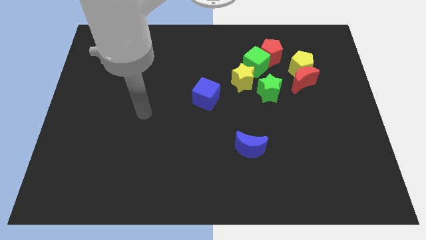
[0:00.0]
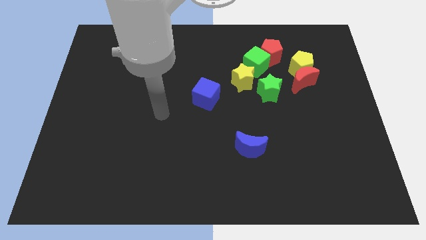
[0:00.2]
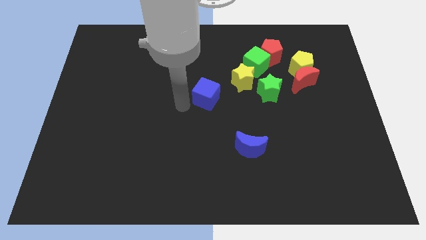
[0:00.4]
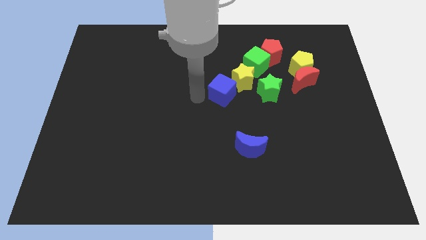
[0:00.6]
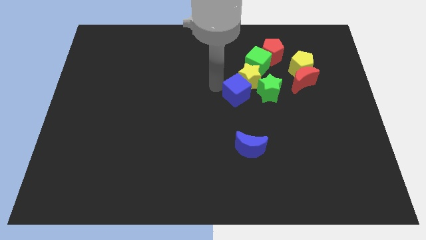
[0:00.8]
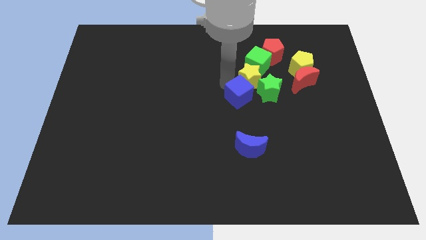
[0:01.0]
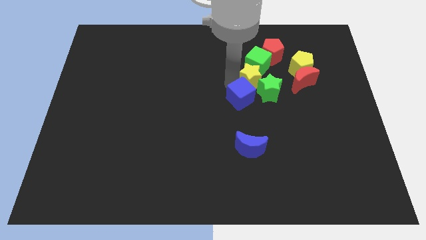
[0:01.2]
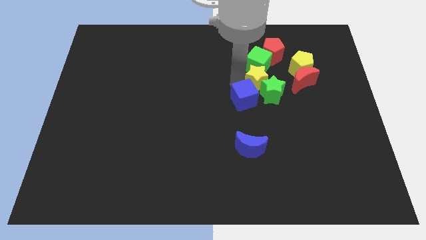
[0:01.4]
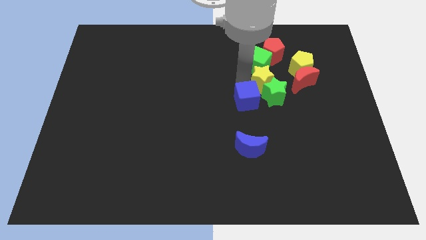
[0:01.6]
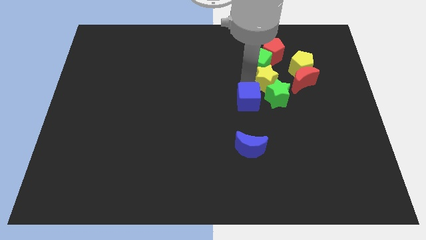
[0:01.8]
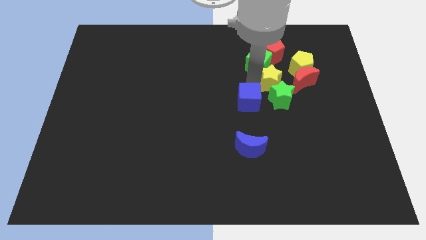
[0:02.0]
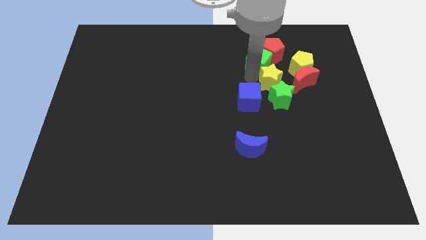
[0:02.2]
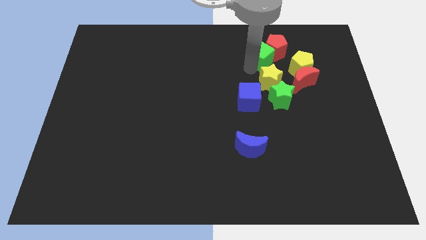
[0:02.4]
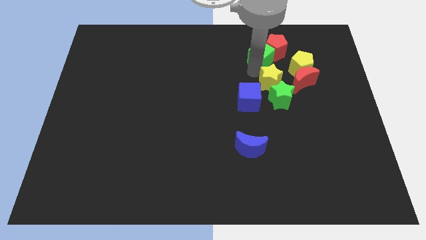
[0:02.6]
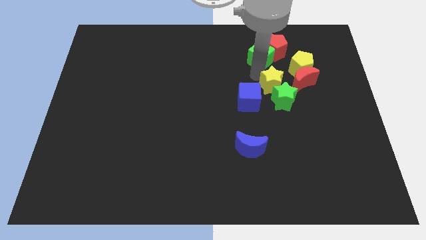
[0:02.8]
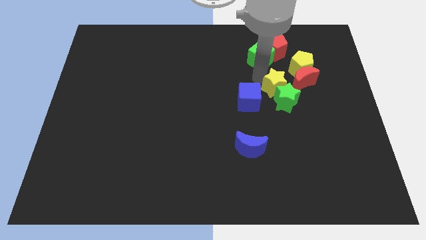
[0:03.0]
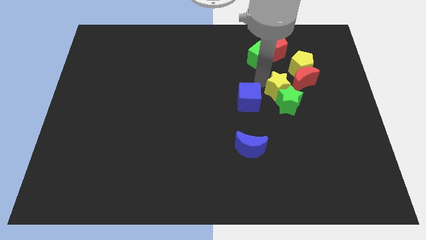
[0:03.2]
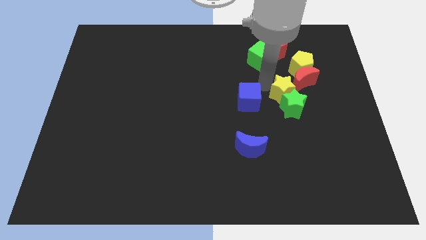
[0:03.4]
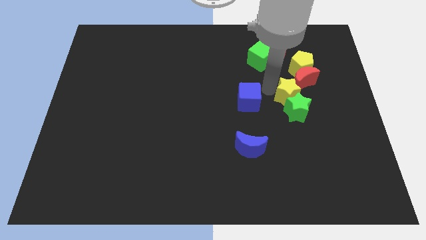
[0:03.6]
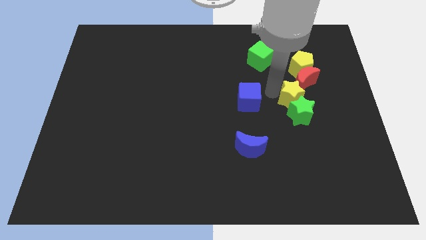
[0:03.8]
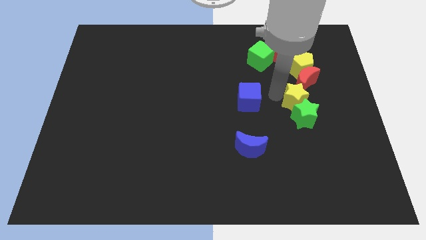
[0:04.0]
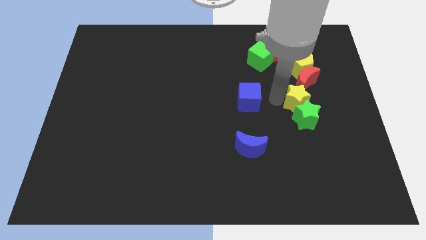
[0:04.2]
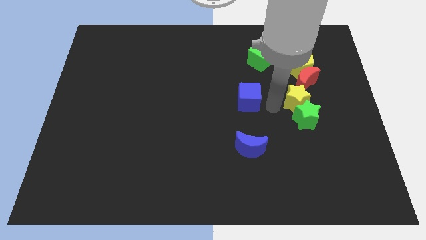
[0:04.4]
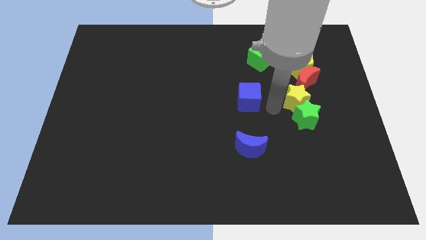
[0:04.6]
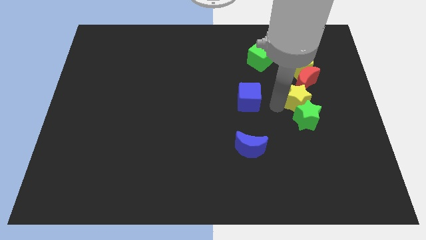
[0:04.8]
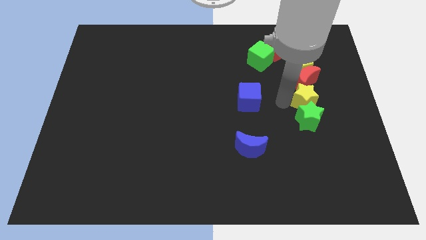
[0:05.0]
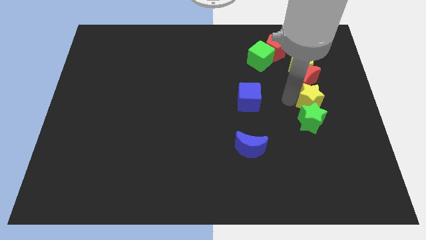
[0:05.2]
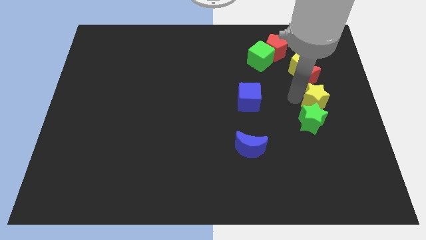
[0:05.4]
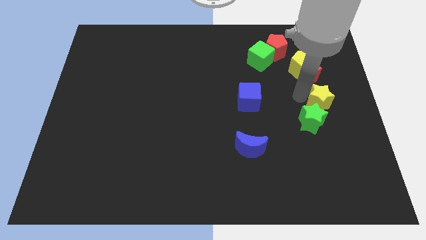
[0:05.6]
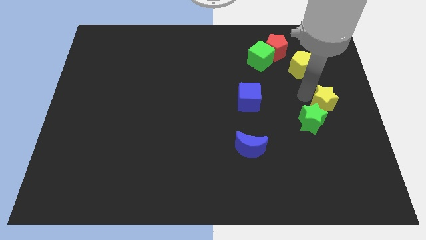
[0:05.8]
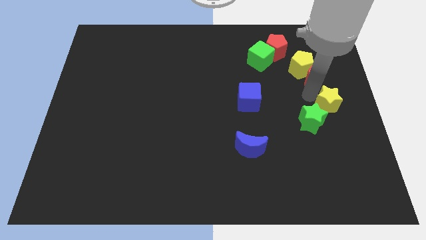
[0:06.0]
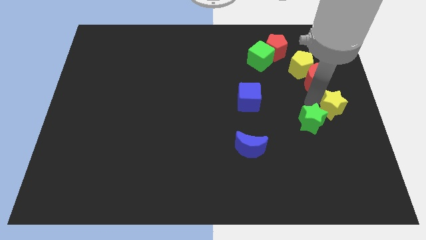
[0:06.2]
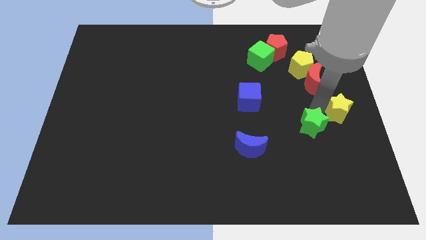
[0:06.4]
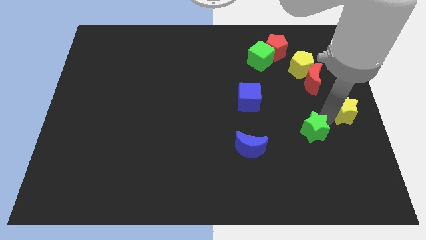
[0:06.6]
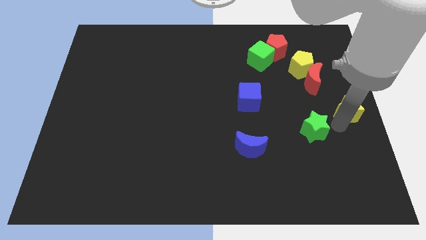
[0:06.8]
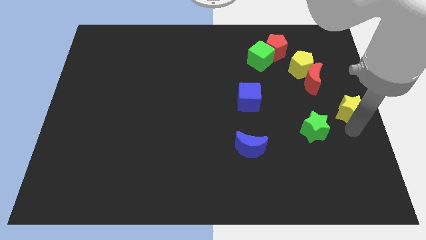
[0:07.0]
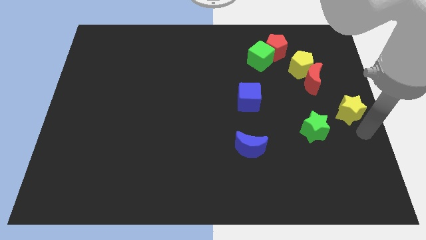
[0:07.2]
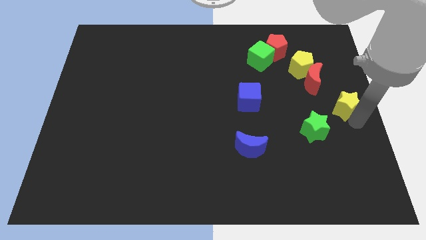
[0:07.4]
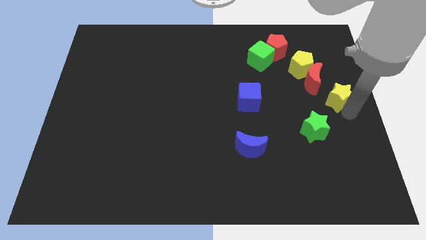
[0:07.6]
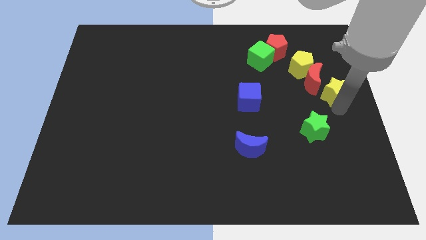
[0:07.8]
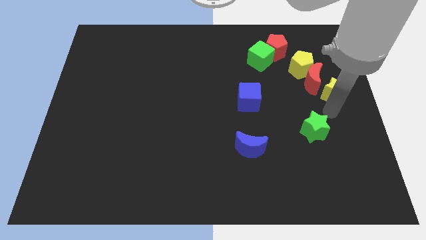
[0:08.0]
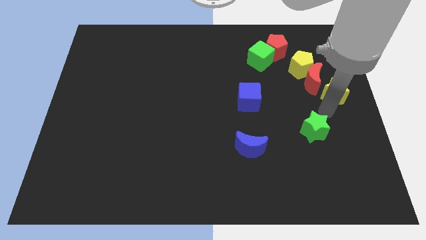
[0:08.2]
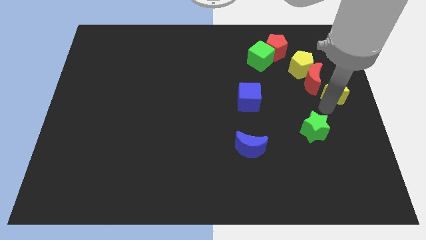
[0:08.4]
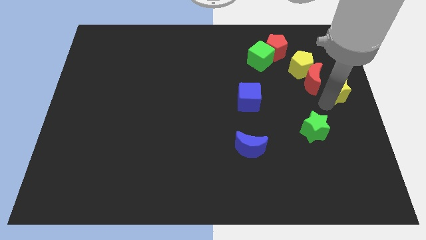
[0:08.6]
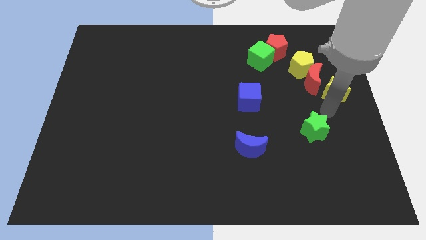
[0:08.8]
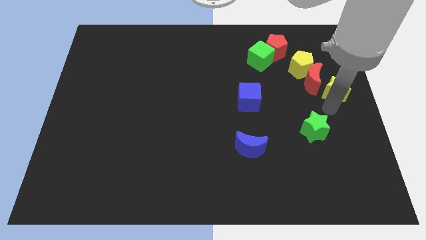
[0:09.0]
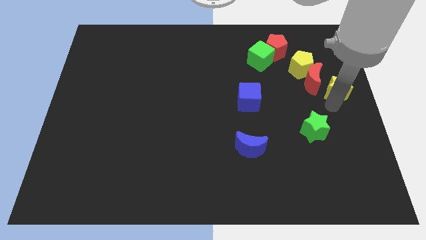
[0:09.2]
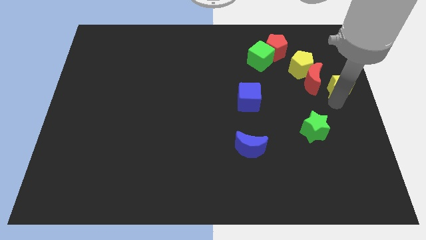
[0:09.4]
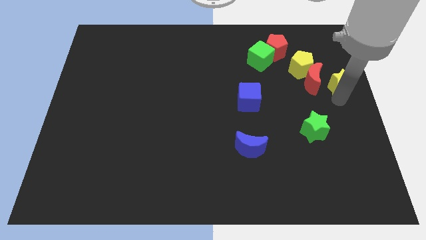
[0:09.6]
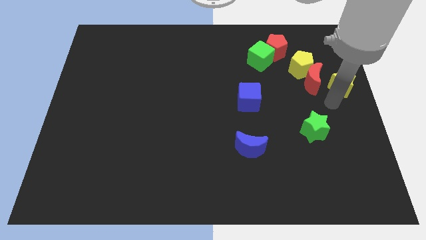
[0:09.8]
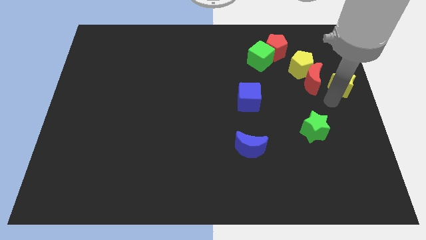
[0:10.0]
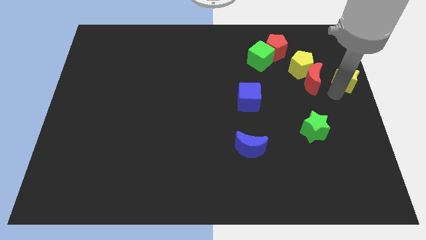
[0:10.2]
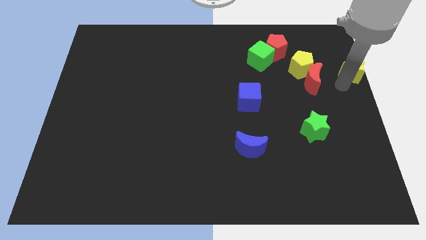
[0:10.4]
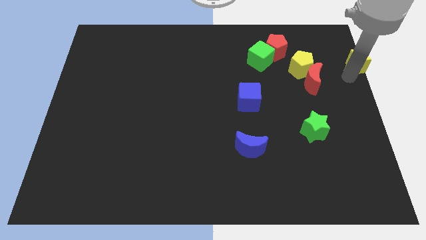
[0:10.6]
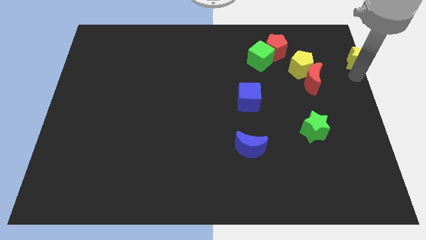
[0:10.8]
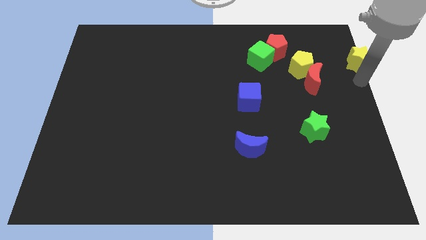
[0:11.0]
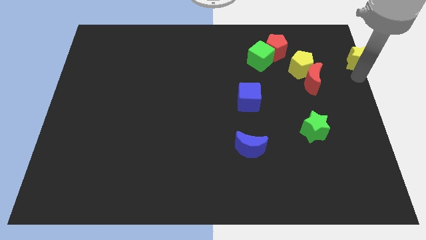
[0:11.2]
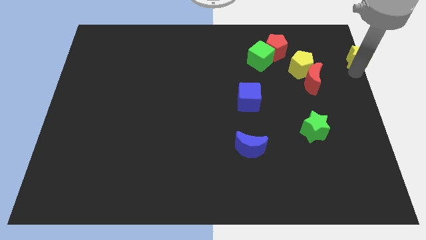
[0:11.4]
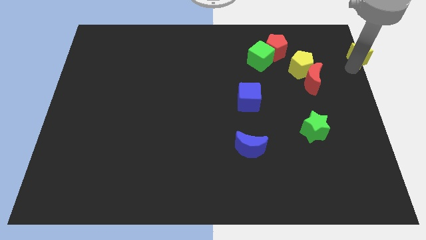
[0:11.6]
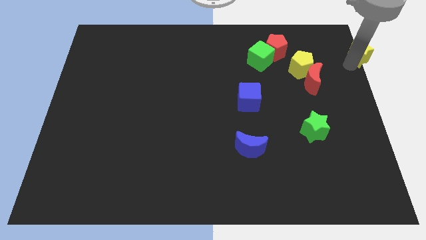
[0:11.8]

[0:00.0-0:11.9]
push the yellow star to the top right corner
